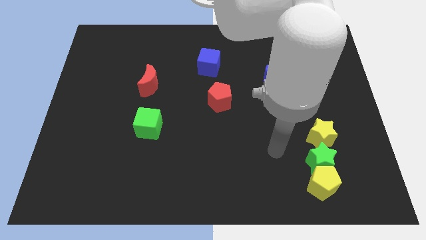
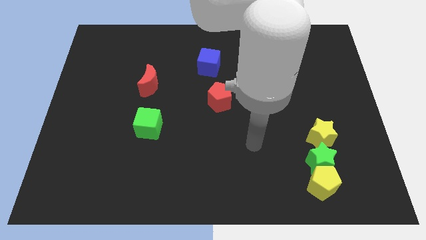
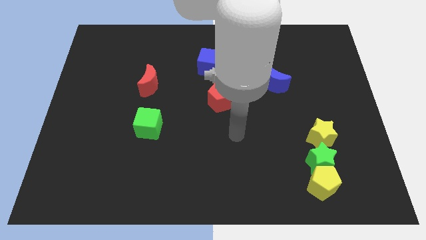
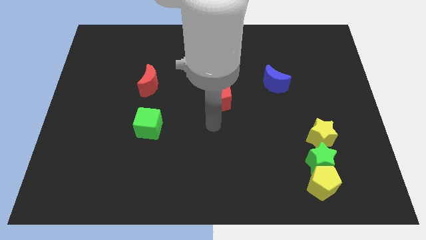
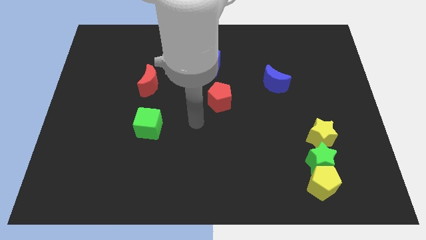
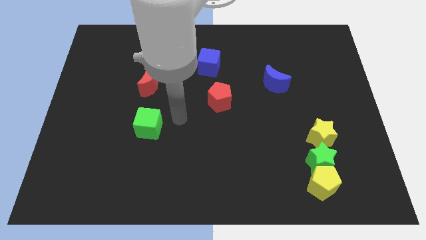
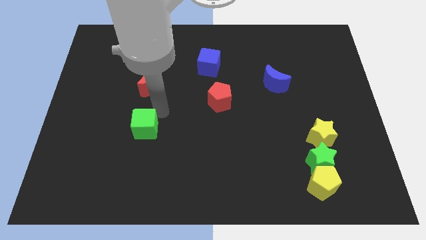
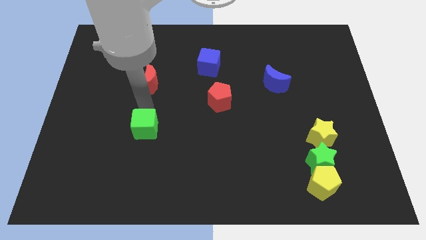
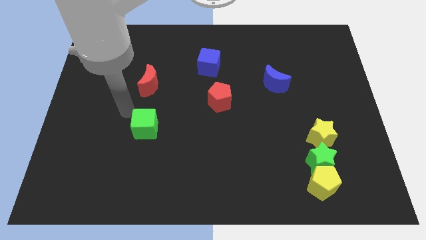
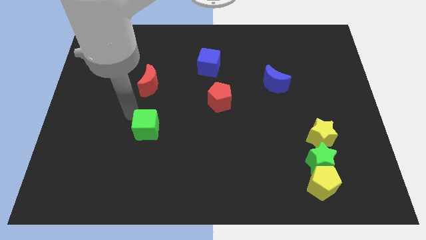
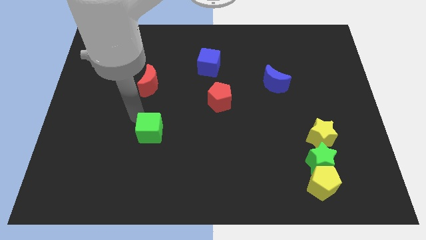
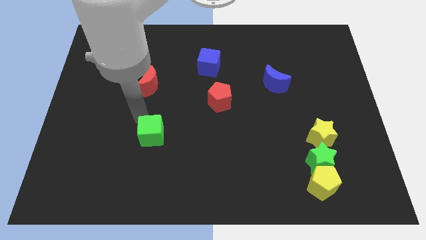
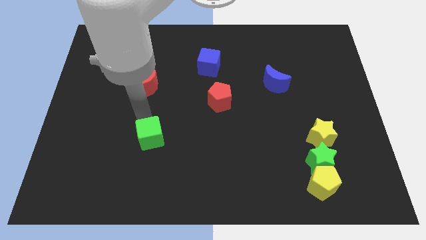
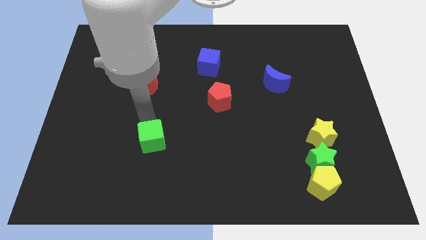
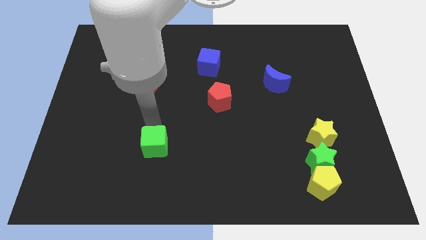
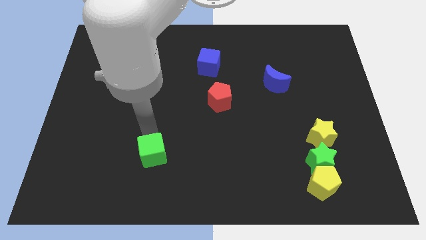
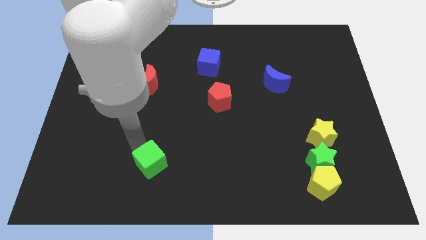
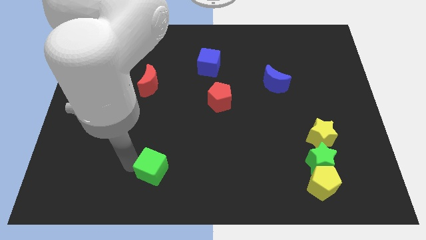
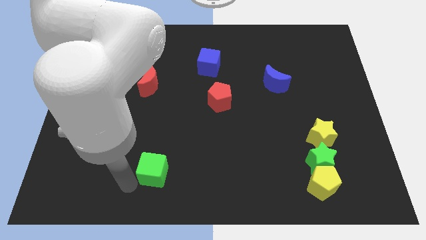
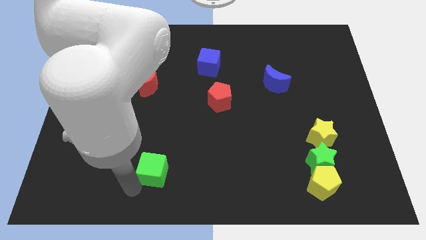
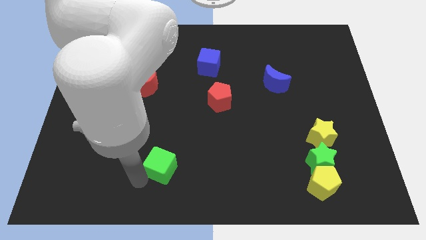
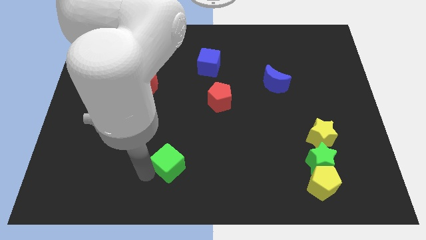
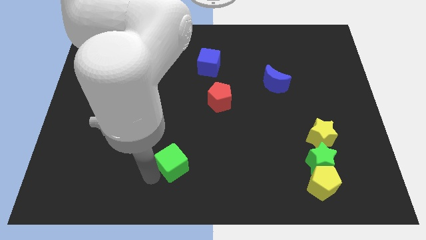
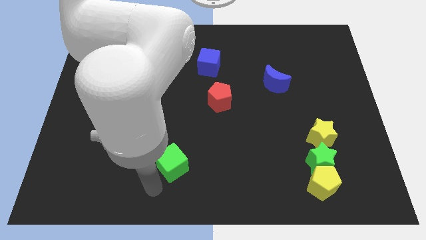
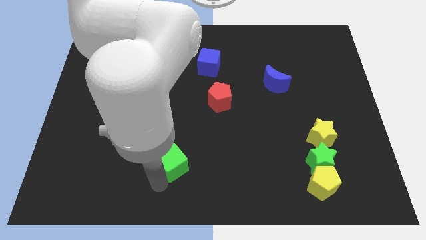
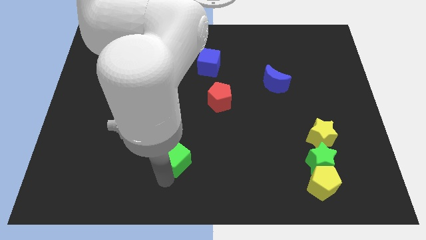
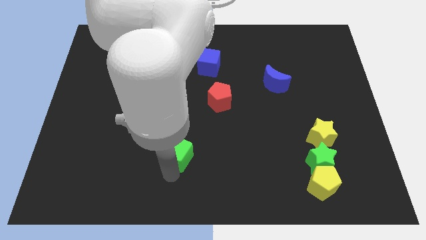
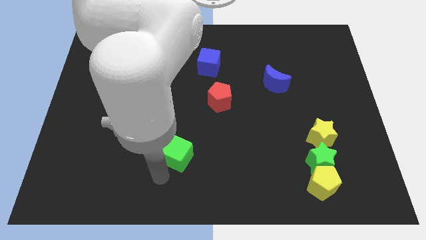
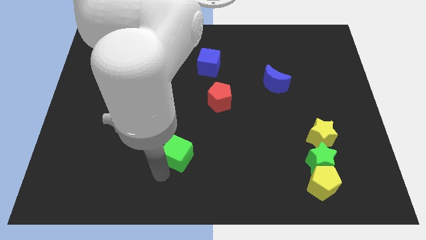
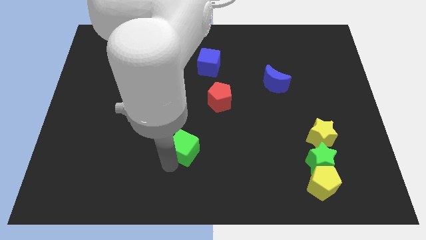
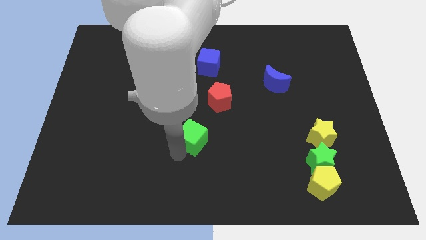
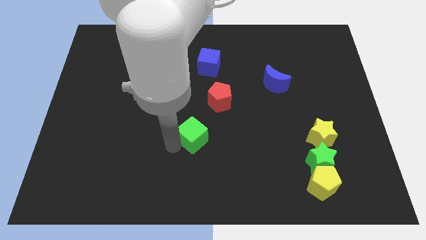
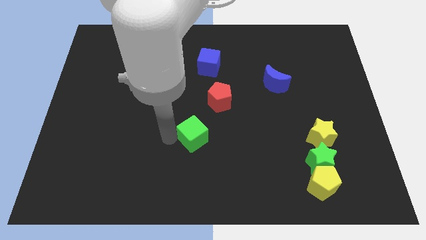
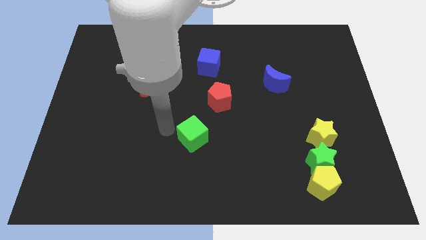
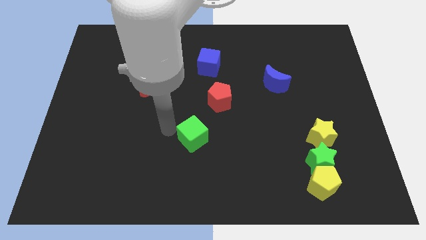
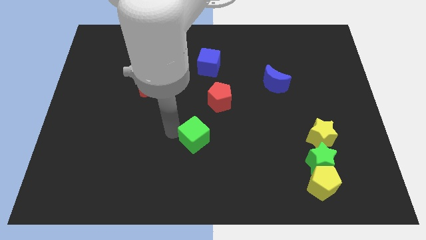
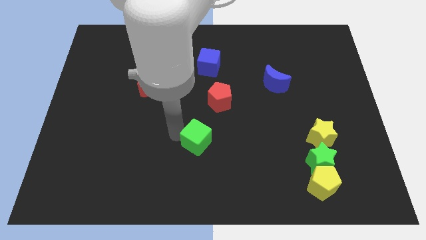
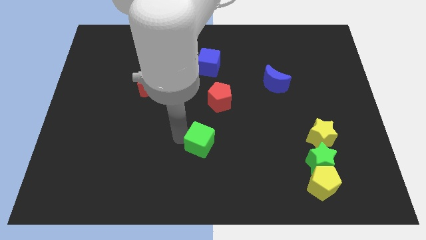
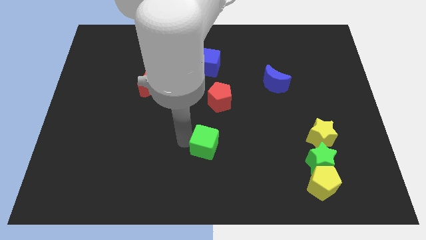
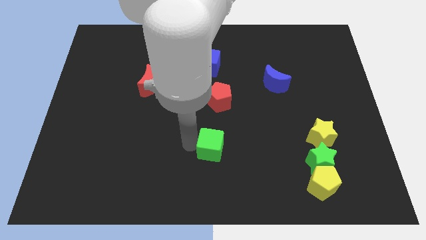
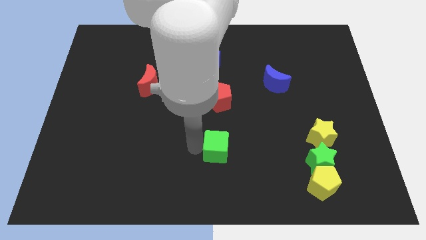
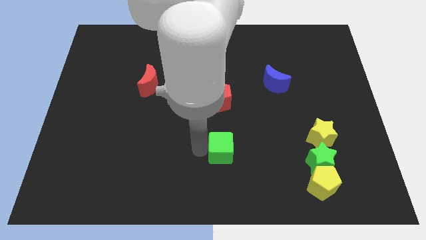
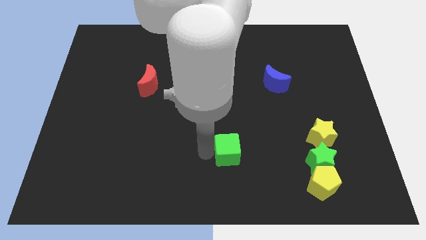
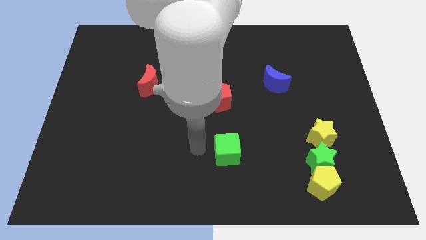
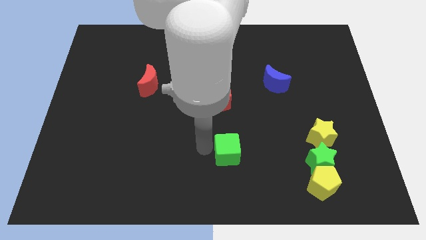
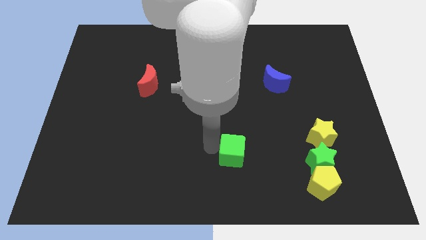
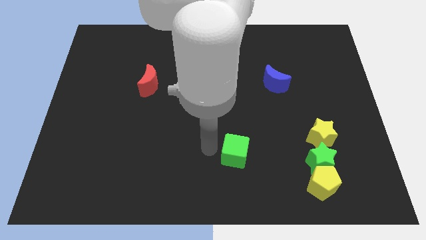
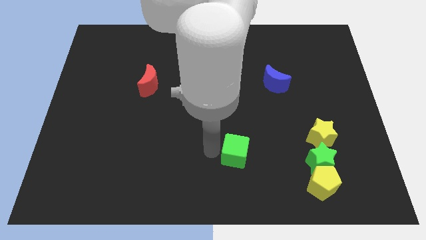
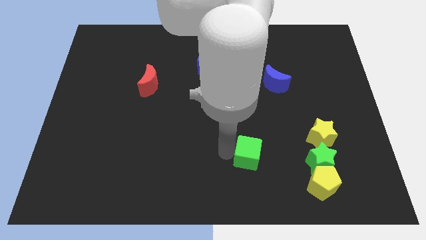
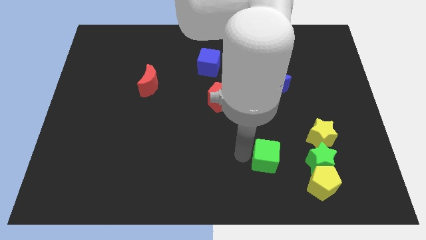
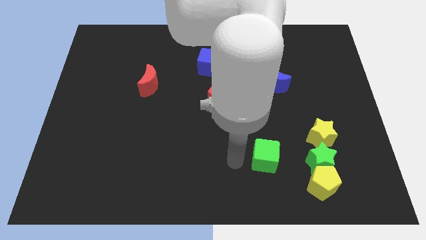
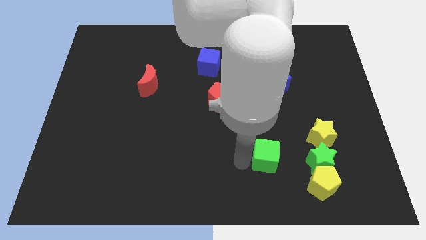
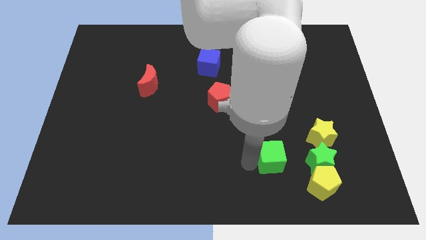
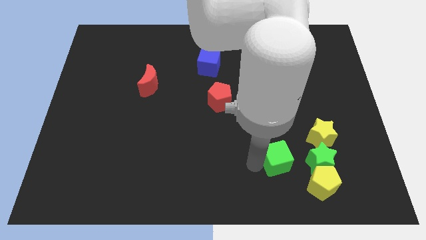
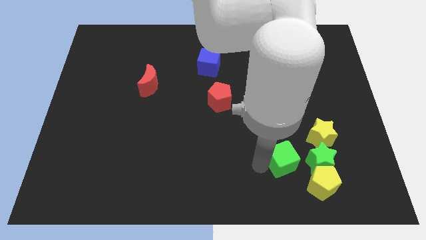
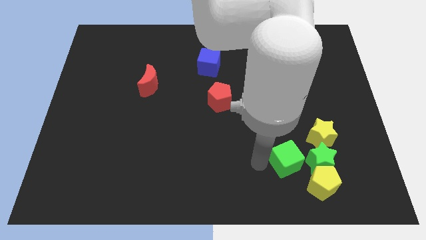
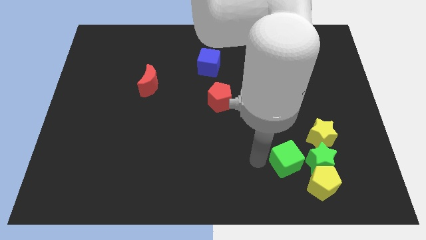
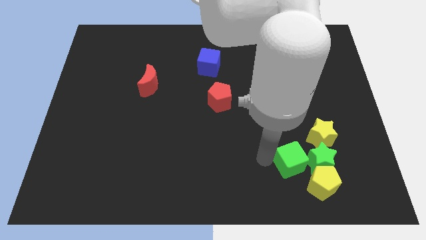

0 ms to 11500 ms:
push the green cube next to the green star

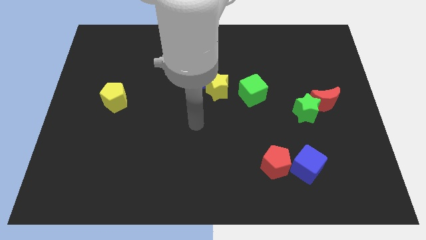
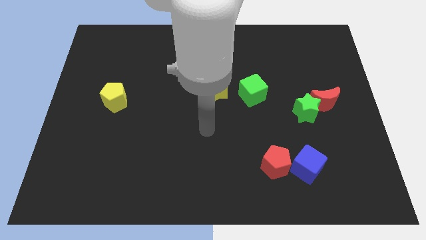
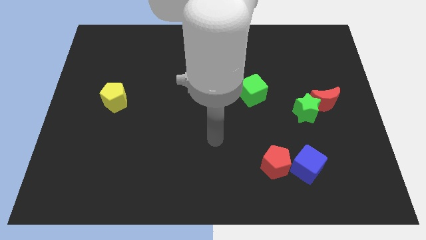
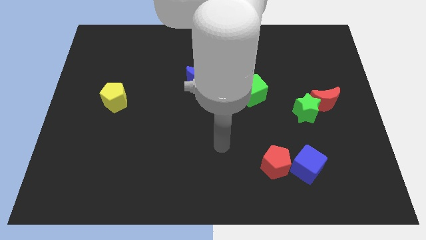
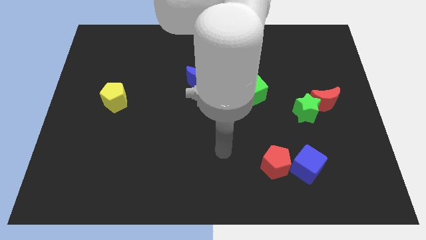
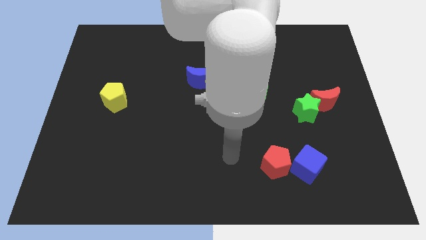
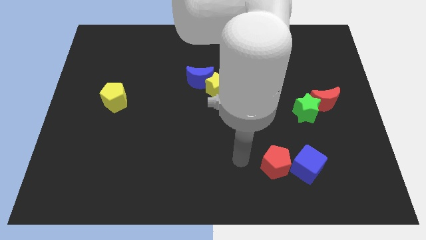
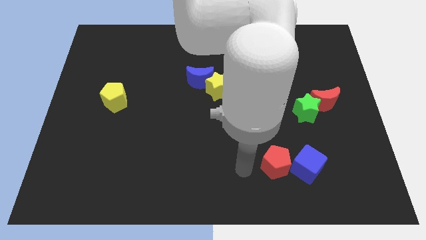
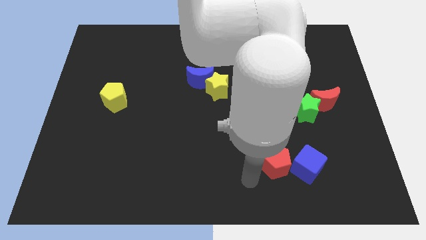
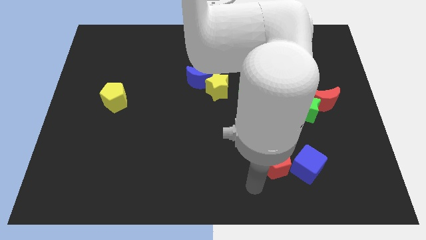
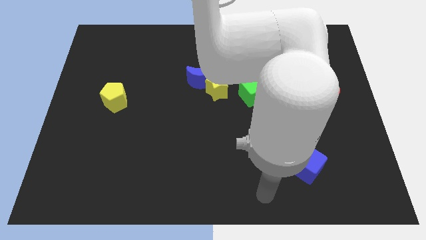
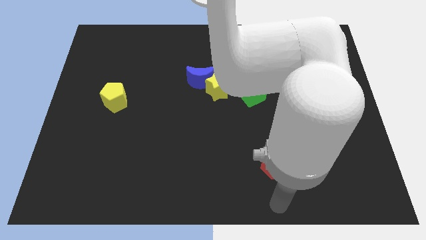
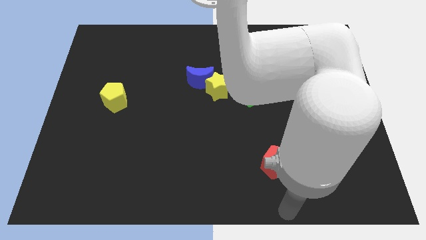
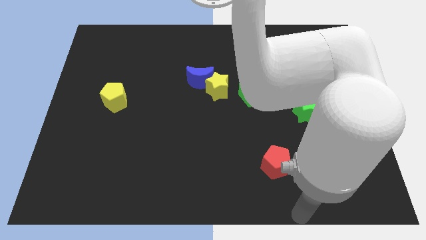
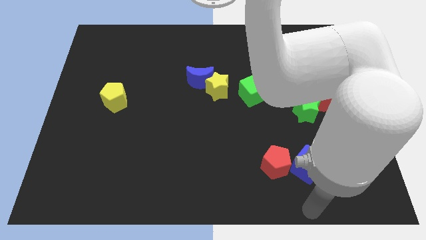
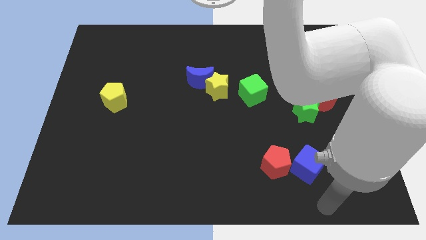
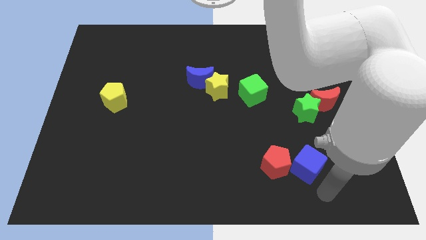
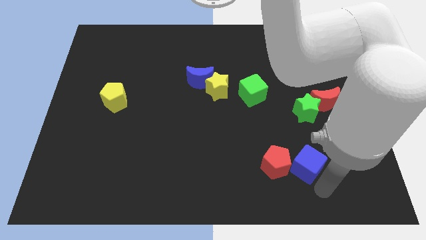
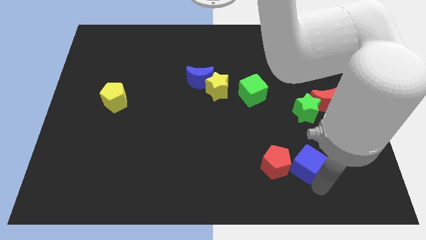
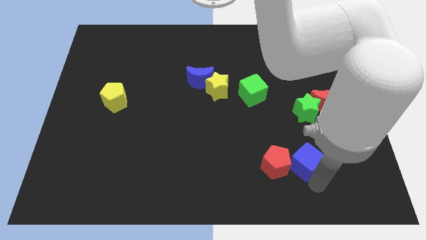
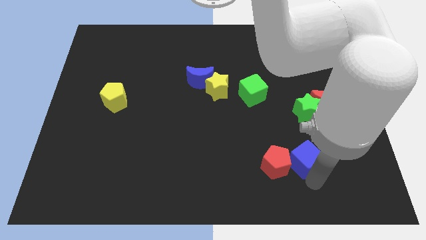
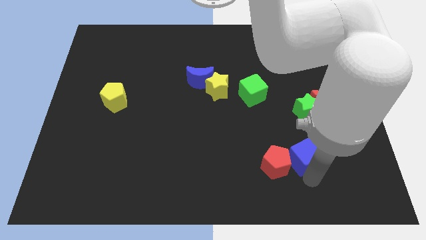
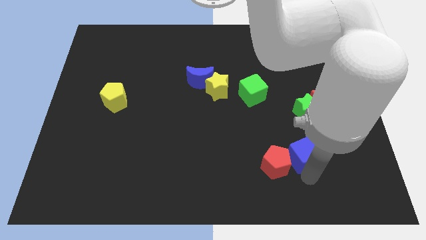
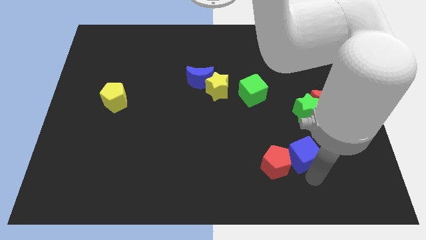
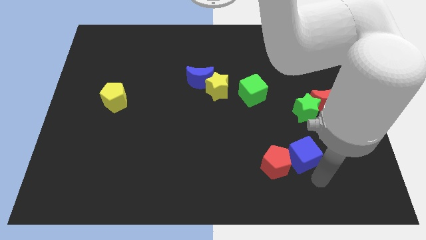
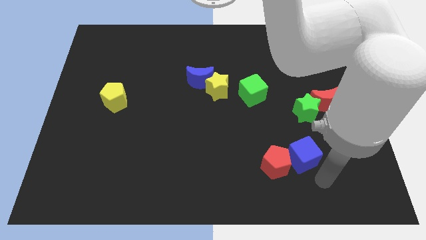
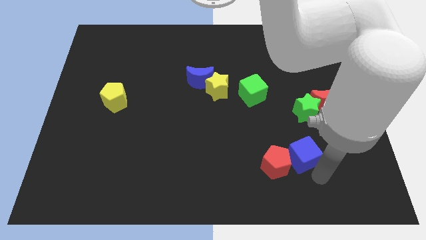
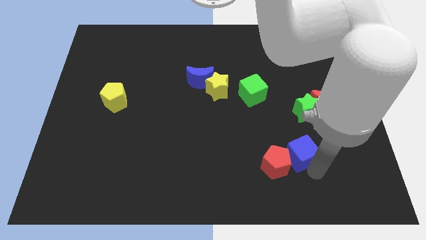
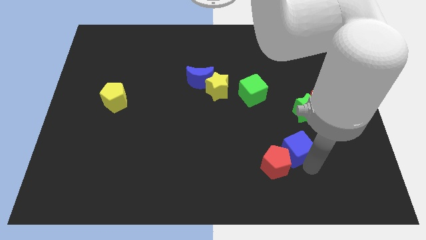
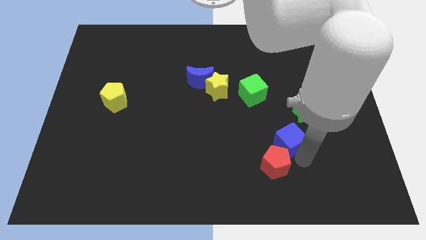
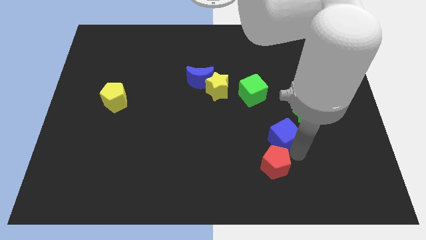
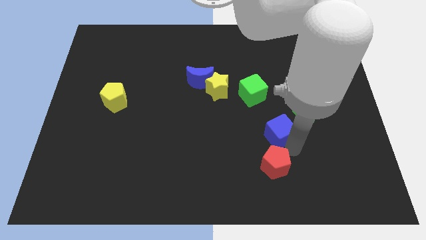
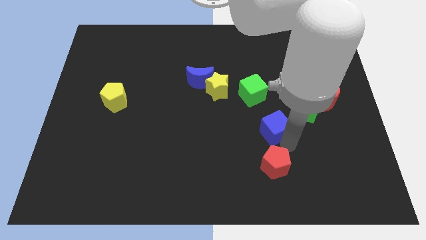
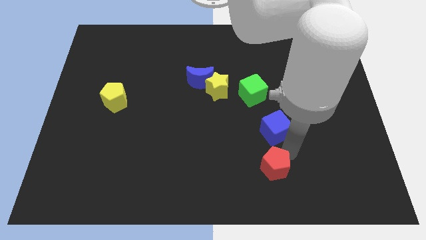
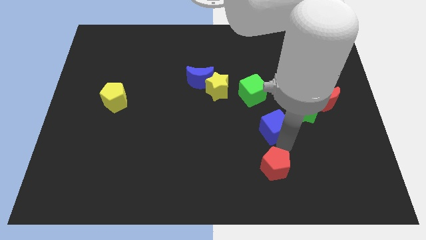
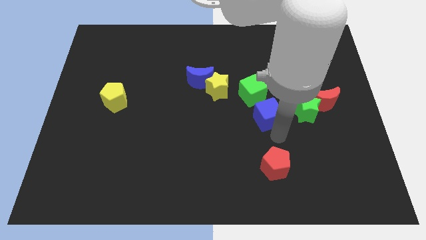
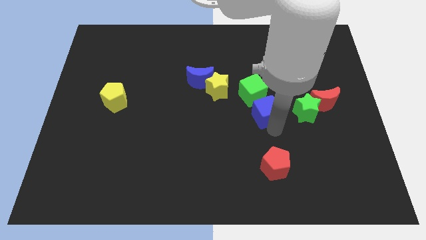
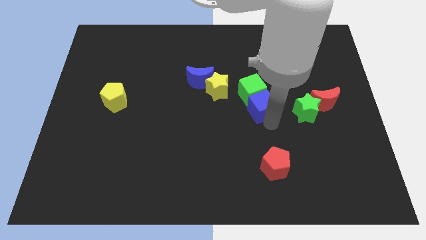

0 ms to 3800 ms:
move the blue cube towards the green cube
